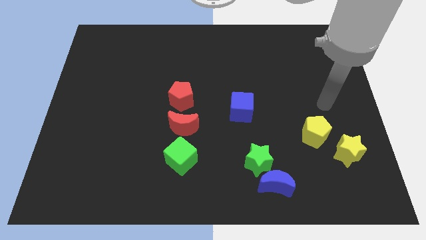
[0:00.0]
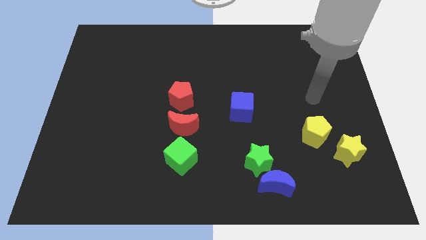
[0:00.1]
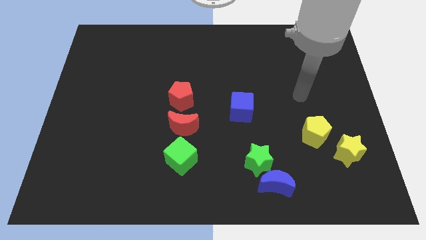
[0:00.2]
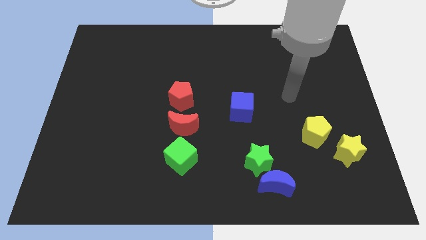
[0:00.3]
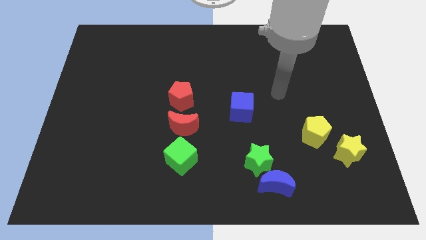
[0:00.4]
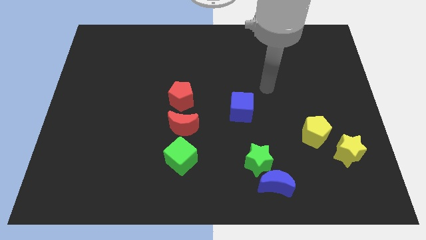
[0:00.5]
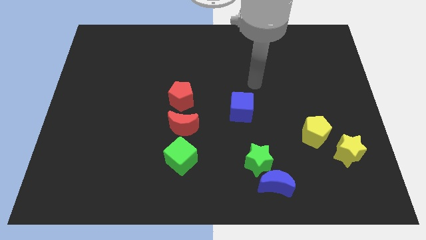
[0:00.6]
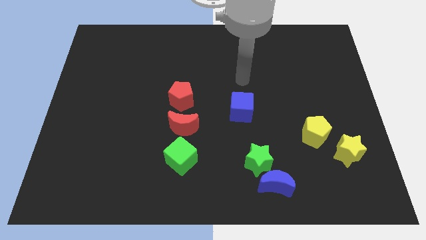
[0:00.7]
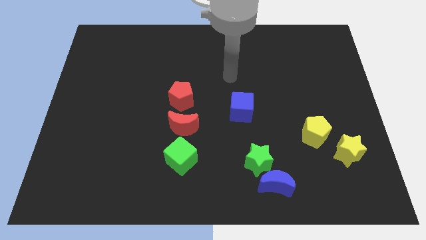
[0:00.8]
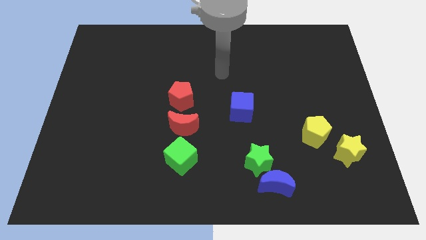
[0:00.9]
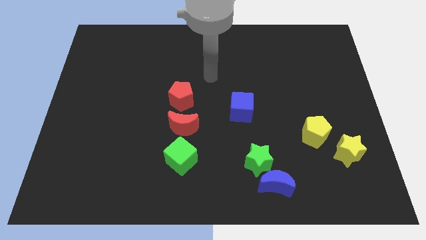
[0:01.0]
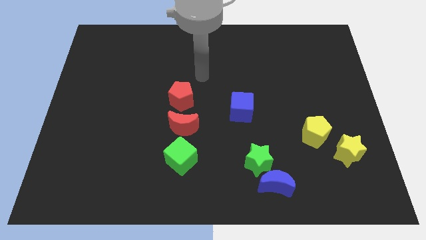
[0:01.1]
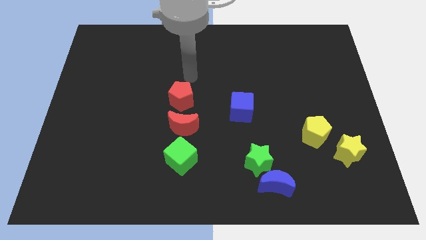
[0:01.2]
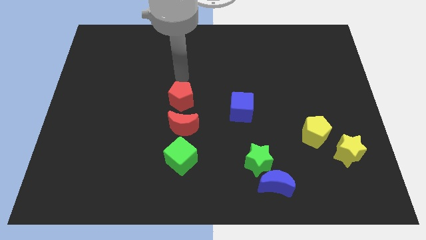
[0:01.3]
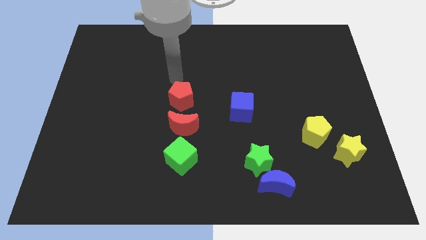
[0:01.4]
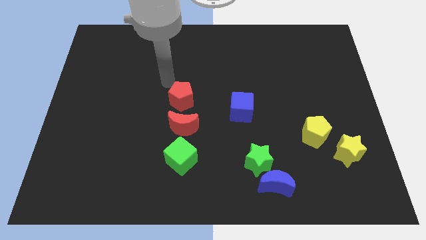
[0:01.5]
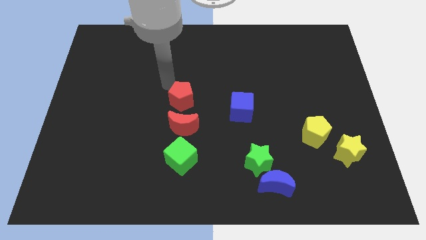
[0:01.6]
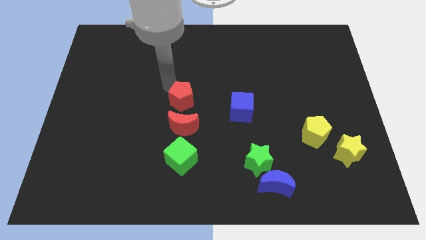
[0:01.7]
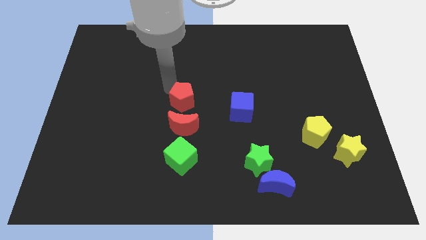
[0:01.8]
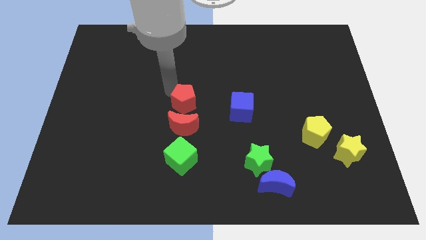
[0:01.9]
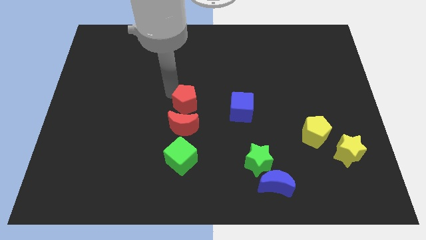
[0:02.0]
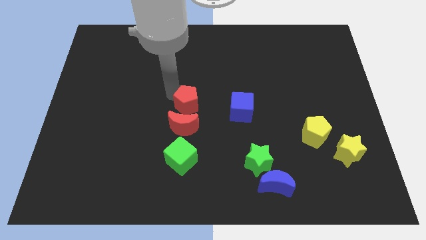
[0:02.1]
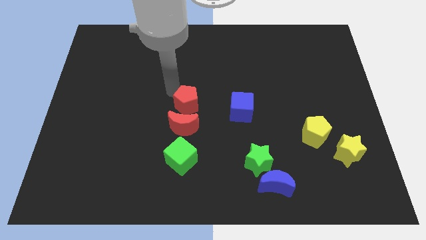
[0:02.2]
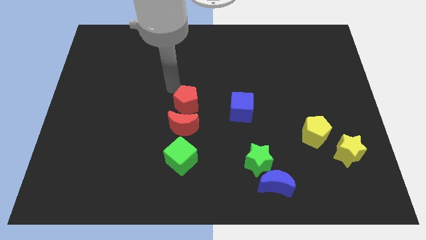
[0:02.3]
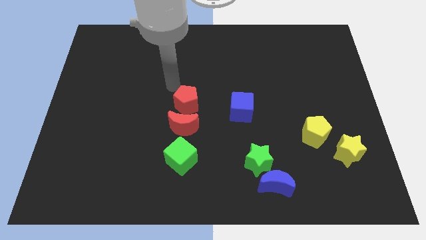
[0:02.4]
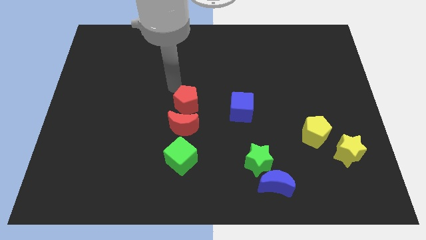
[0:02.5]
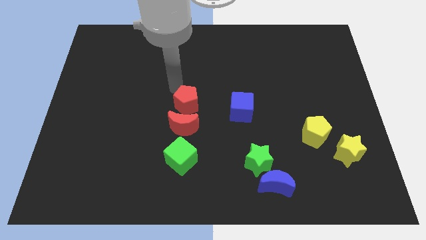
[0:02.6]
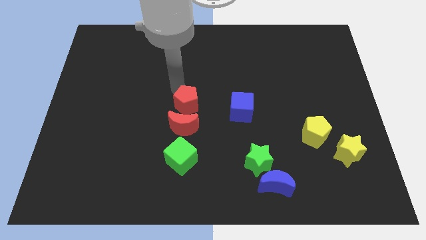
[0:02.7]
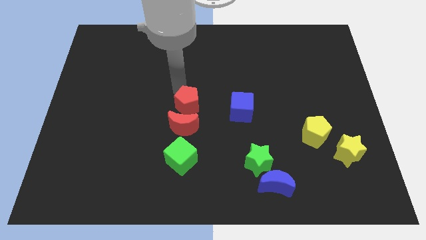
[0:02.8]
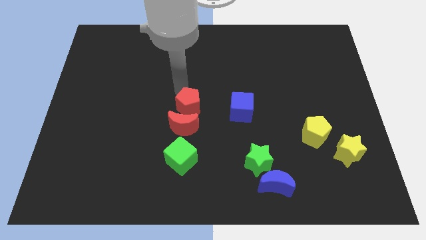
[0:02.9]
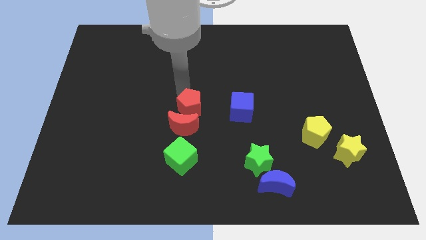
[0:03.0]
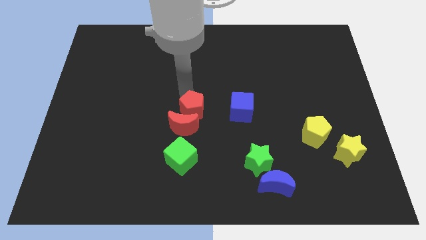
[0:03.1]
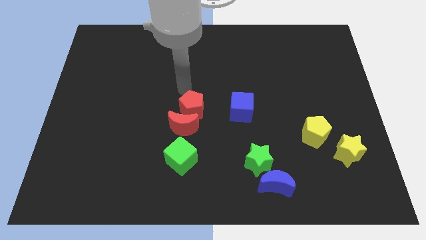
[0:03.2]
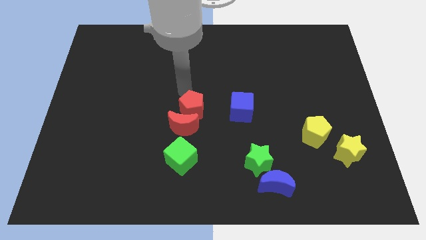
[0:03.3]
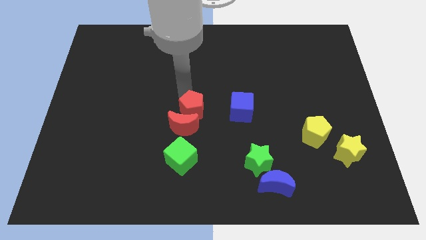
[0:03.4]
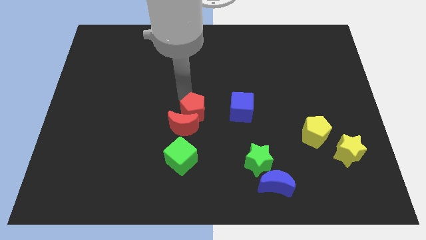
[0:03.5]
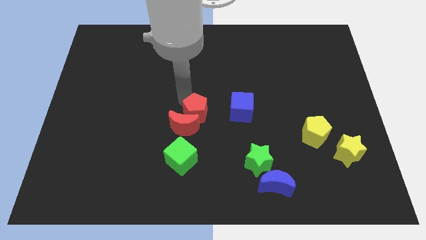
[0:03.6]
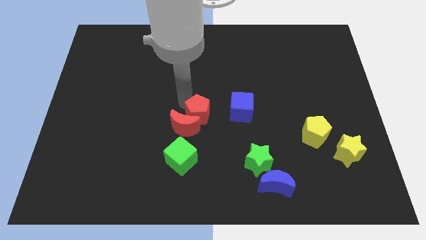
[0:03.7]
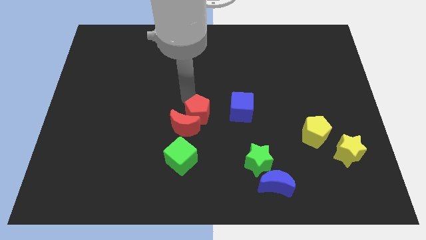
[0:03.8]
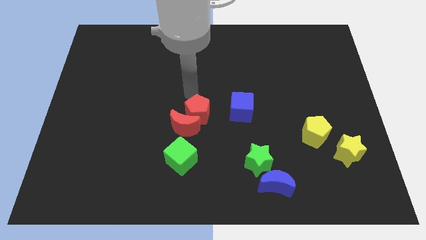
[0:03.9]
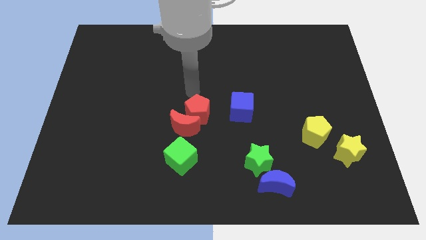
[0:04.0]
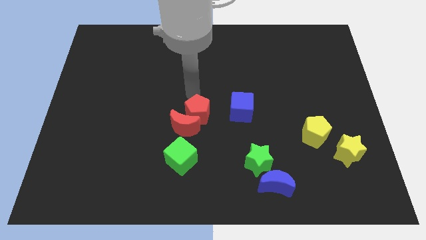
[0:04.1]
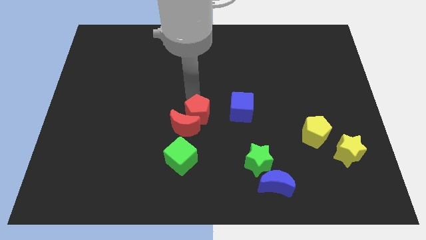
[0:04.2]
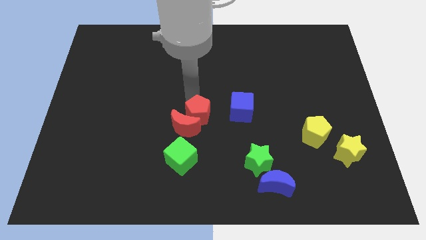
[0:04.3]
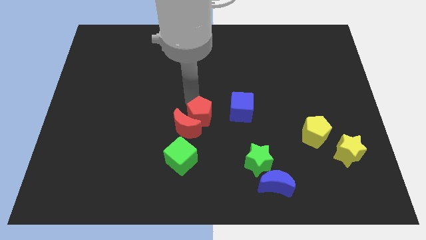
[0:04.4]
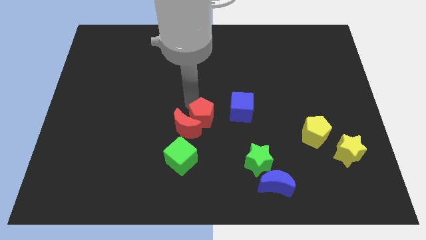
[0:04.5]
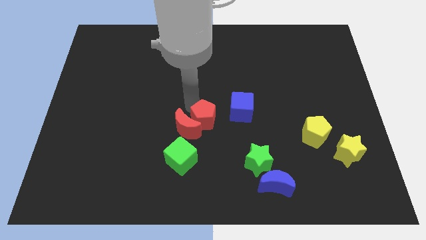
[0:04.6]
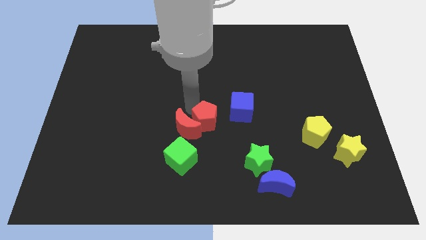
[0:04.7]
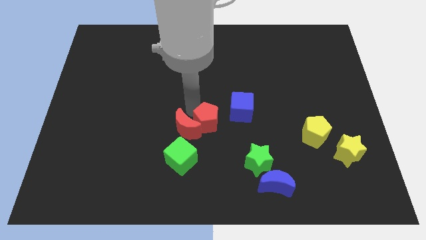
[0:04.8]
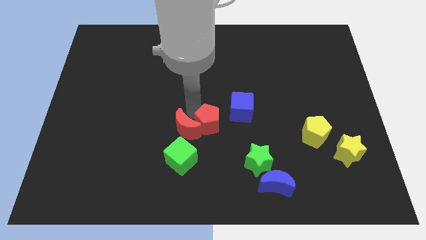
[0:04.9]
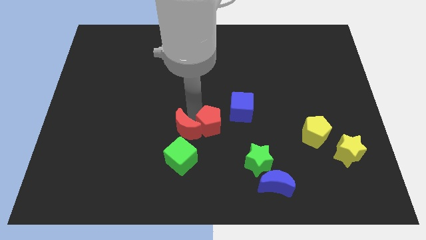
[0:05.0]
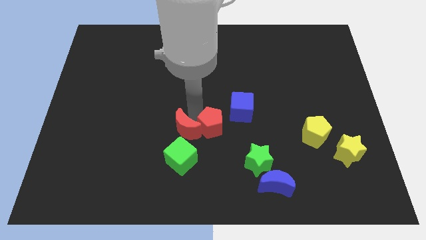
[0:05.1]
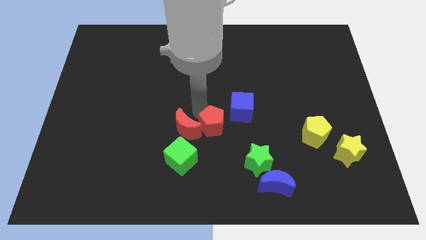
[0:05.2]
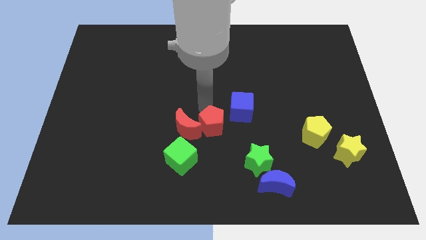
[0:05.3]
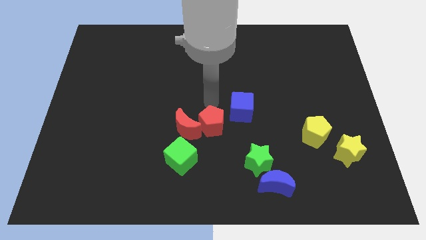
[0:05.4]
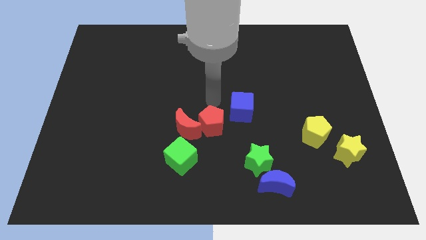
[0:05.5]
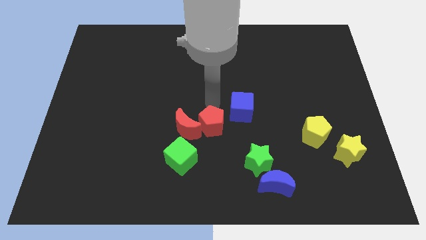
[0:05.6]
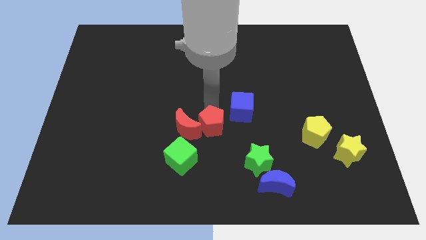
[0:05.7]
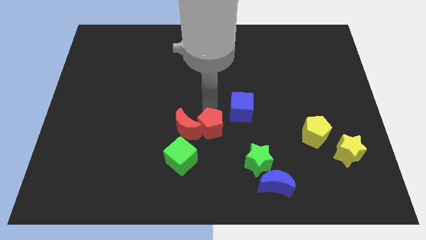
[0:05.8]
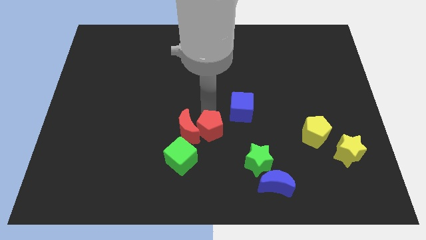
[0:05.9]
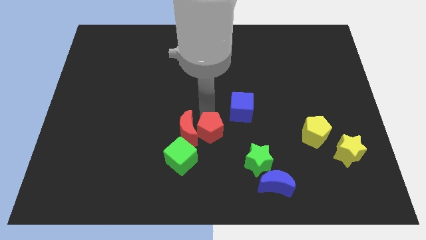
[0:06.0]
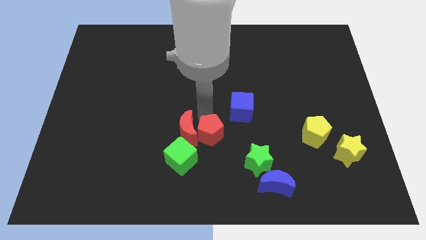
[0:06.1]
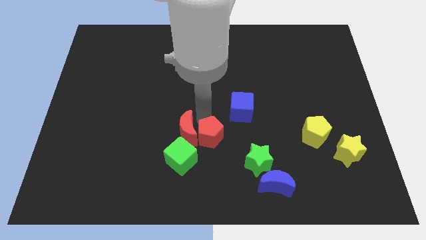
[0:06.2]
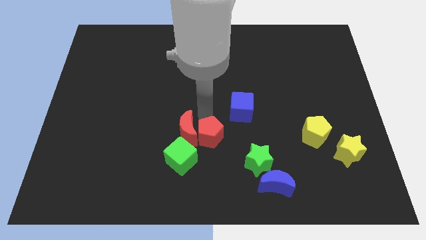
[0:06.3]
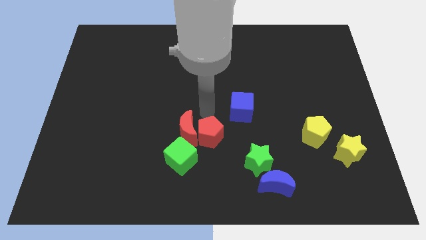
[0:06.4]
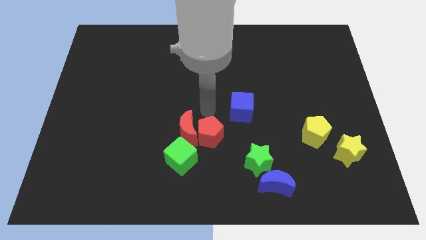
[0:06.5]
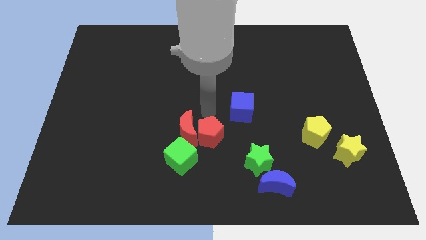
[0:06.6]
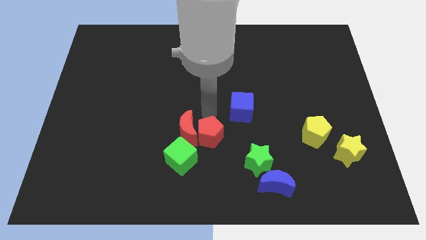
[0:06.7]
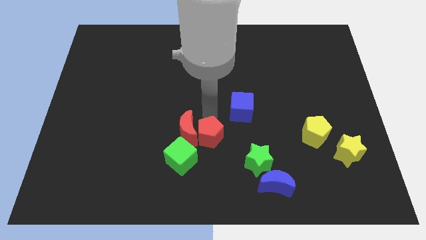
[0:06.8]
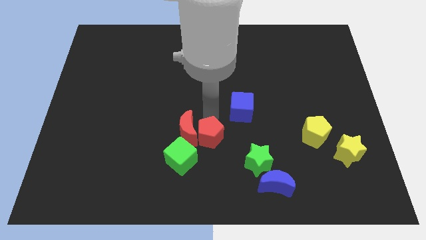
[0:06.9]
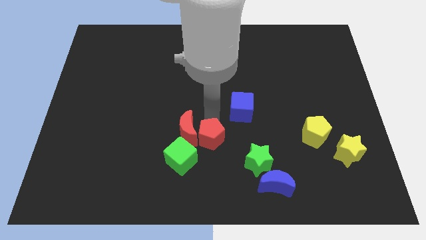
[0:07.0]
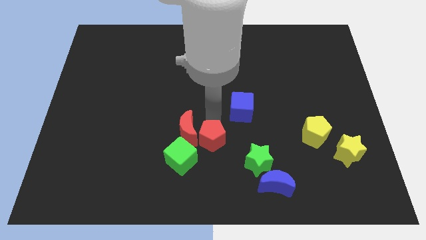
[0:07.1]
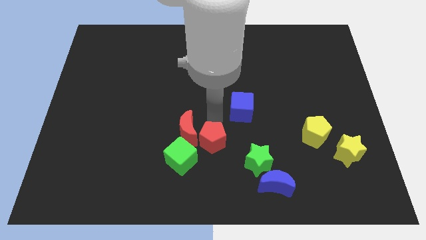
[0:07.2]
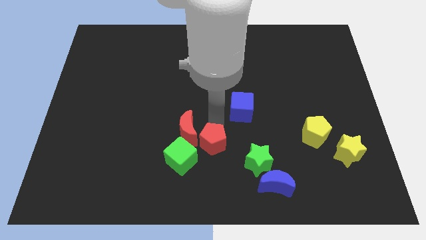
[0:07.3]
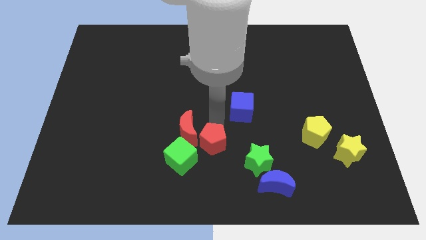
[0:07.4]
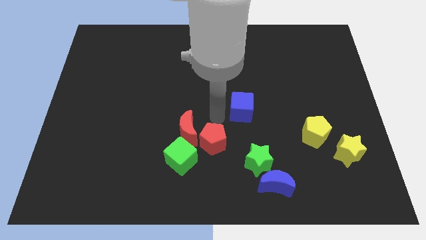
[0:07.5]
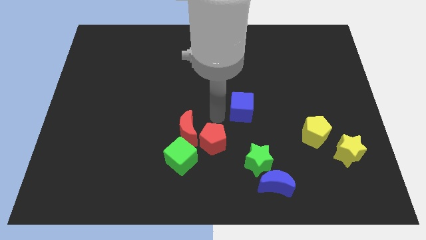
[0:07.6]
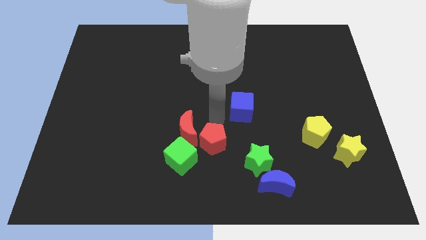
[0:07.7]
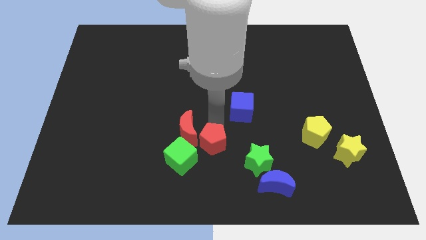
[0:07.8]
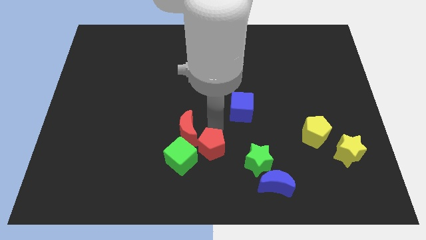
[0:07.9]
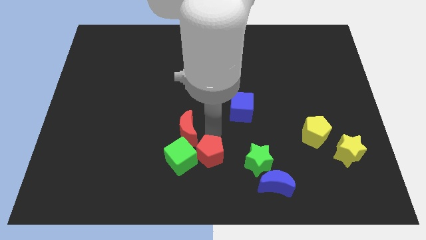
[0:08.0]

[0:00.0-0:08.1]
slide the red pentagon to the bottom side
